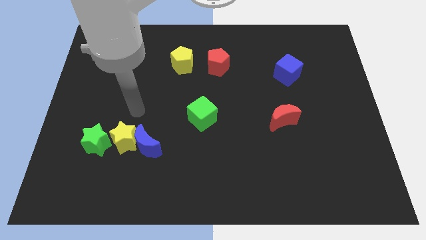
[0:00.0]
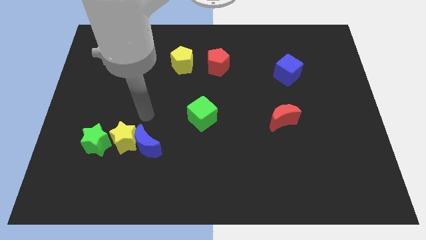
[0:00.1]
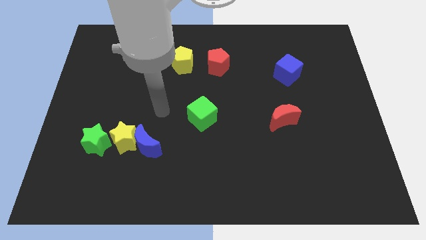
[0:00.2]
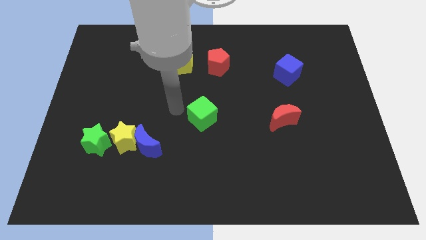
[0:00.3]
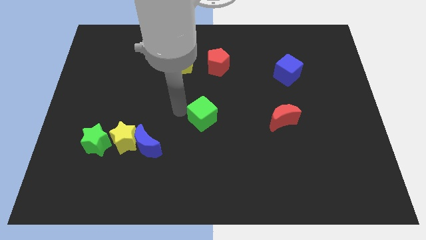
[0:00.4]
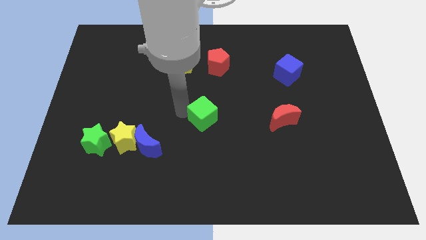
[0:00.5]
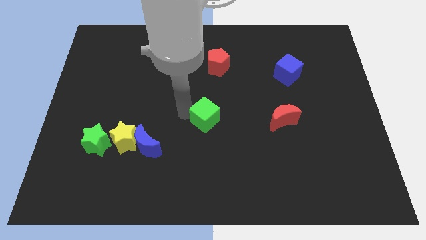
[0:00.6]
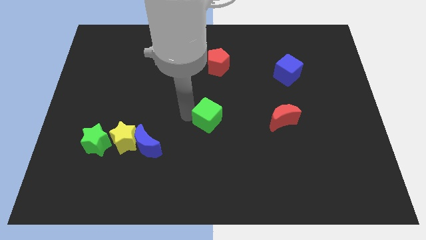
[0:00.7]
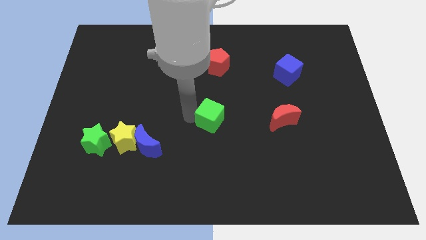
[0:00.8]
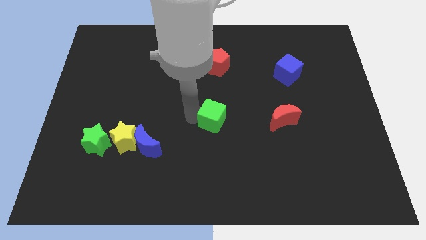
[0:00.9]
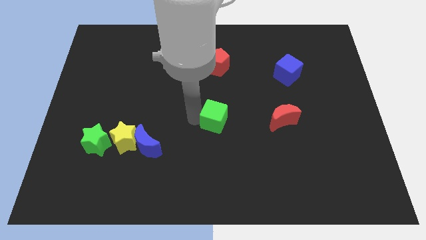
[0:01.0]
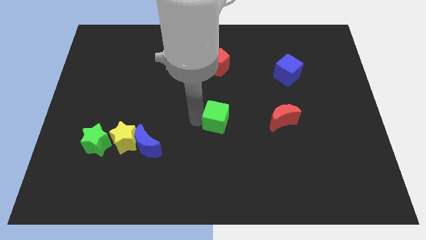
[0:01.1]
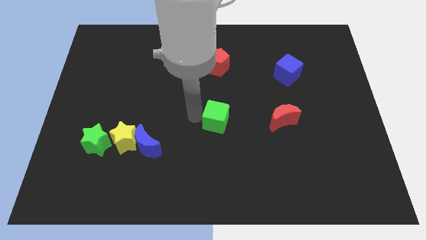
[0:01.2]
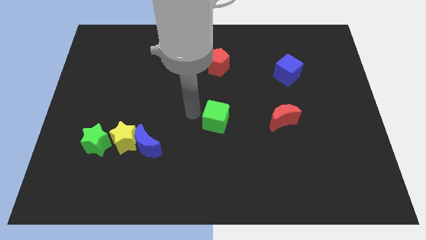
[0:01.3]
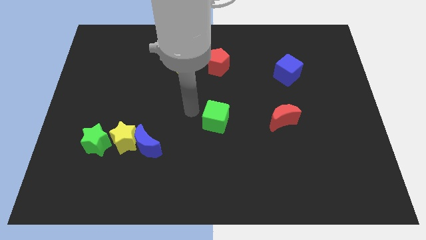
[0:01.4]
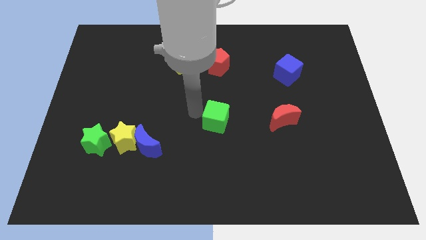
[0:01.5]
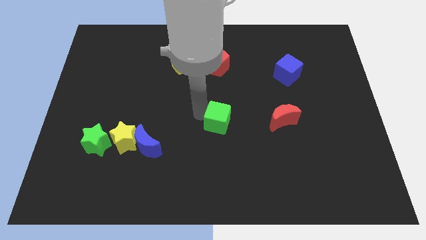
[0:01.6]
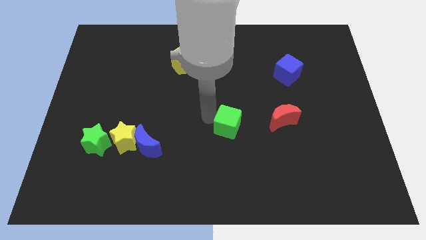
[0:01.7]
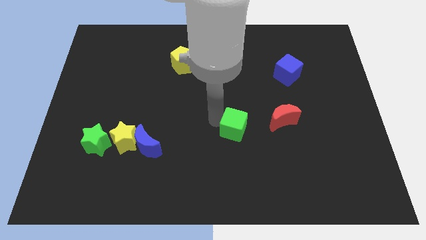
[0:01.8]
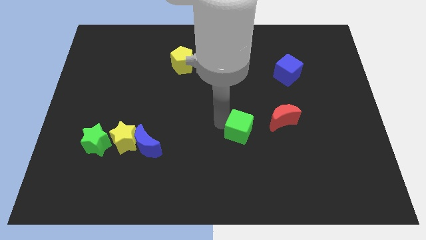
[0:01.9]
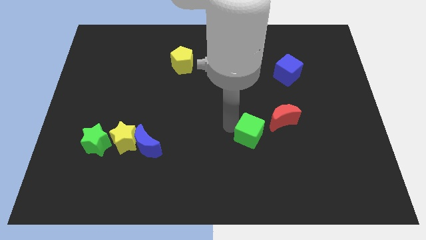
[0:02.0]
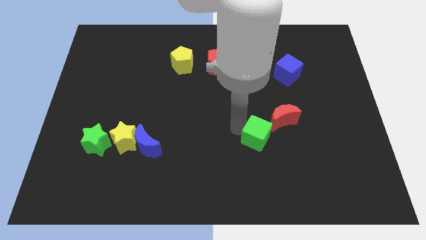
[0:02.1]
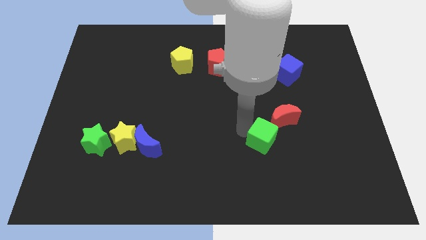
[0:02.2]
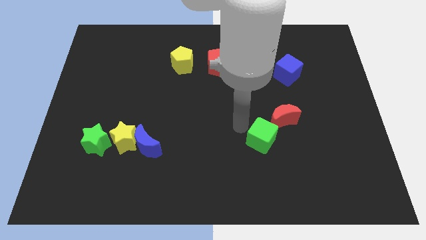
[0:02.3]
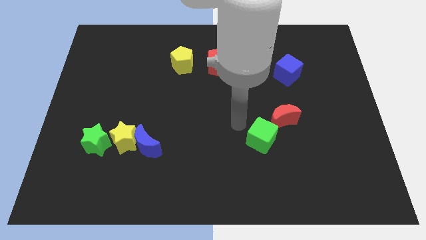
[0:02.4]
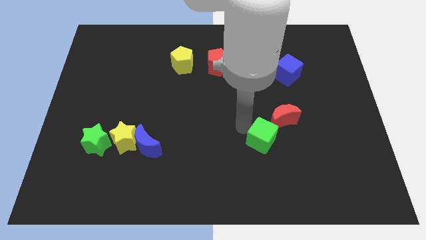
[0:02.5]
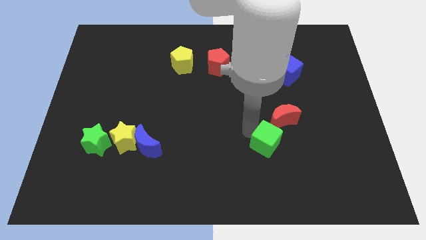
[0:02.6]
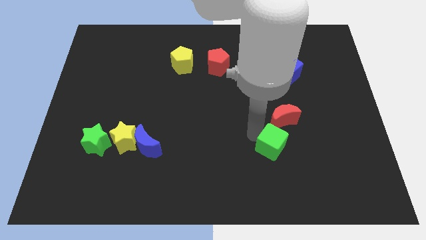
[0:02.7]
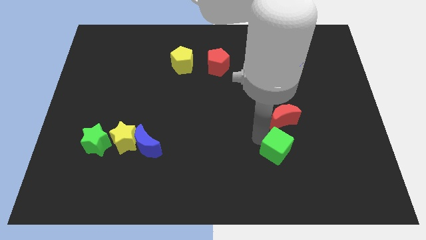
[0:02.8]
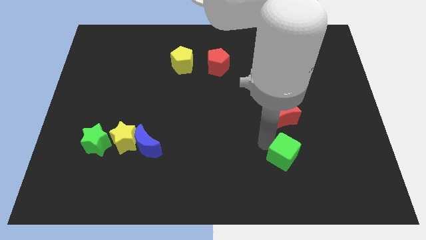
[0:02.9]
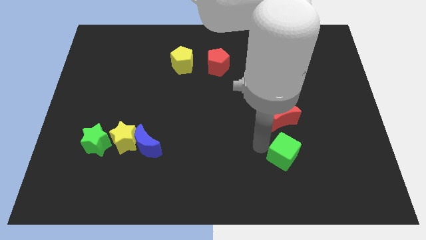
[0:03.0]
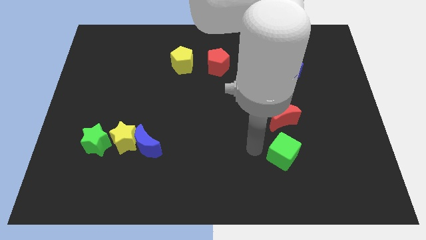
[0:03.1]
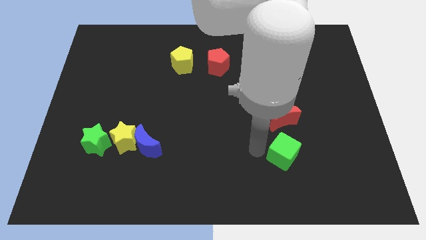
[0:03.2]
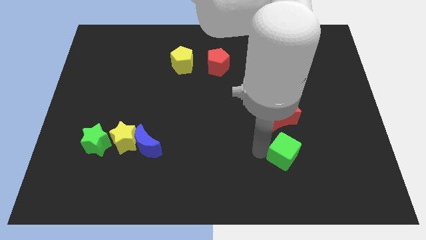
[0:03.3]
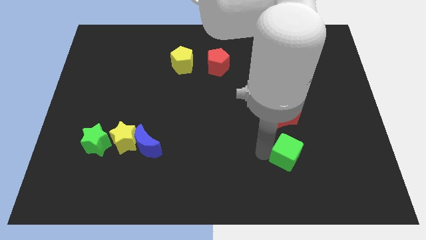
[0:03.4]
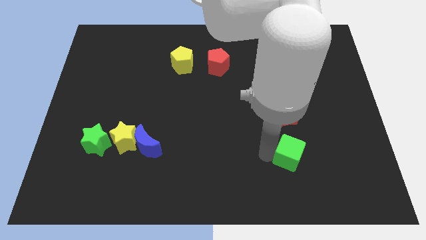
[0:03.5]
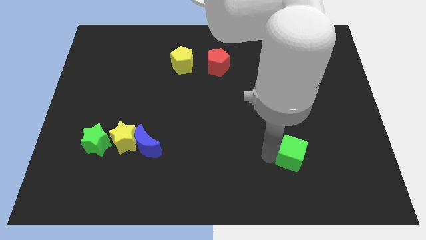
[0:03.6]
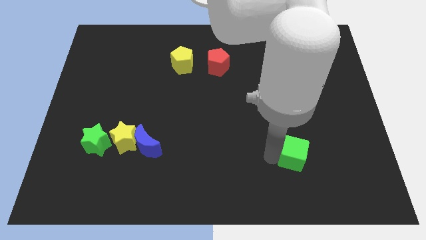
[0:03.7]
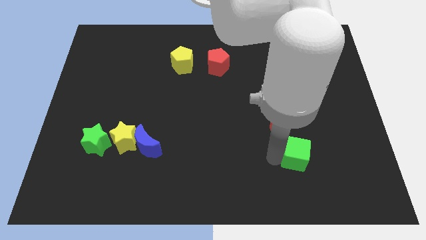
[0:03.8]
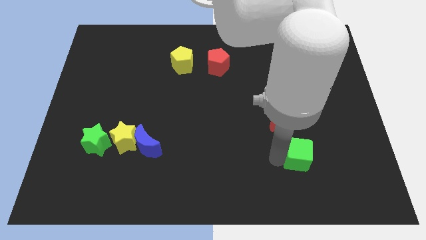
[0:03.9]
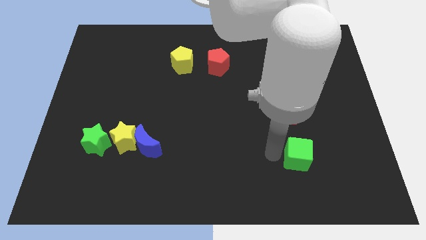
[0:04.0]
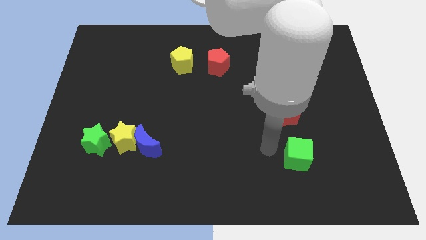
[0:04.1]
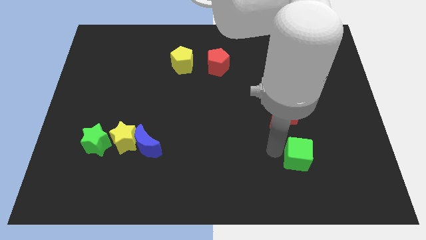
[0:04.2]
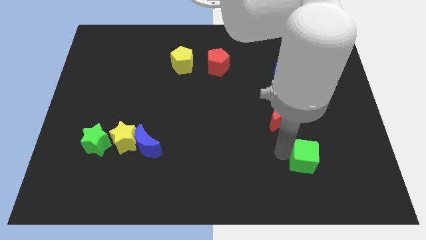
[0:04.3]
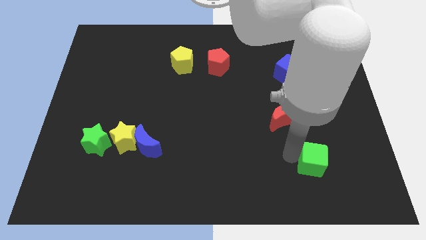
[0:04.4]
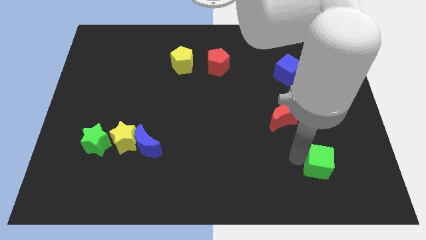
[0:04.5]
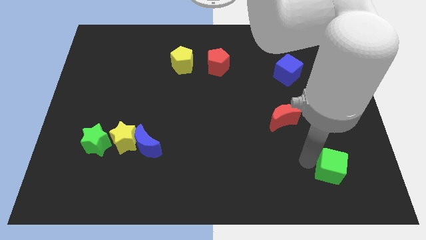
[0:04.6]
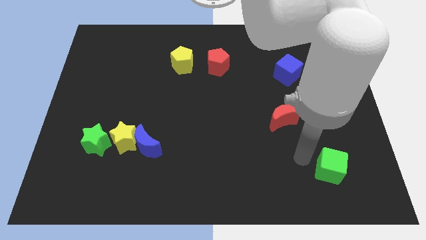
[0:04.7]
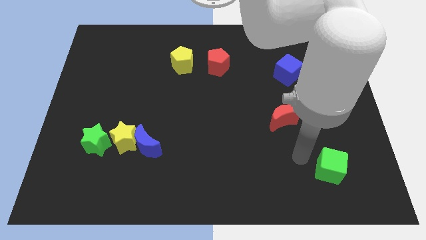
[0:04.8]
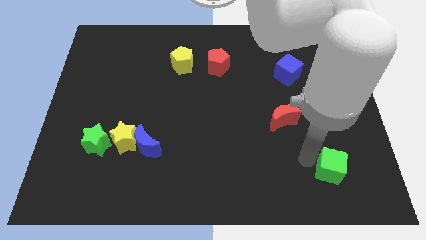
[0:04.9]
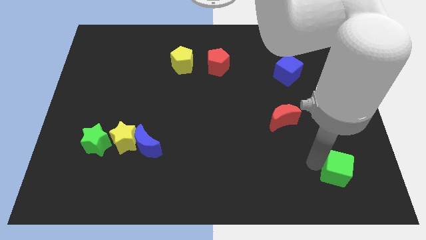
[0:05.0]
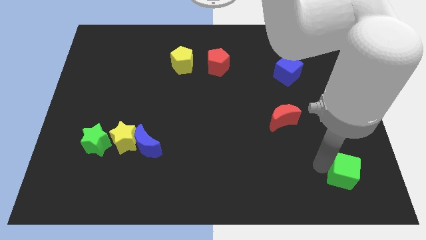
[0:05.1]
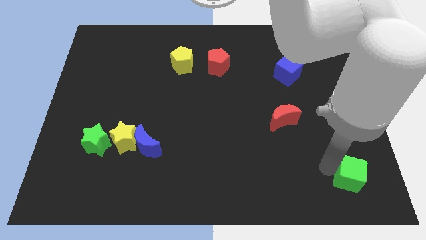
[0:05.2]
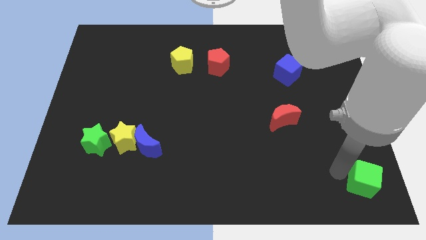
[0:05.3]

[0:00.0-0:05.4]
slide the green cube to the bottom right

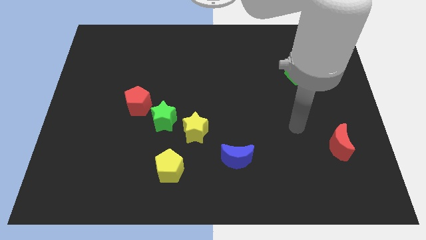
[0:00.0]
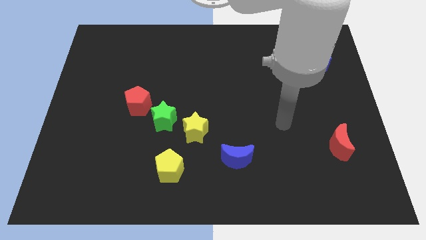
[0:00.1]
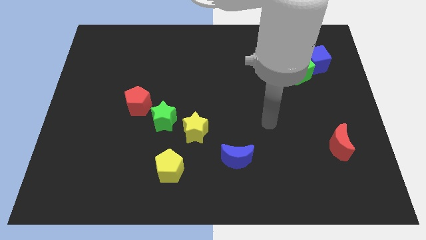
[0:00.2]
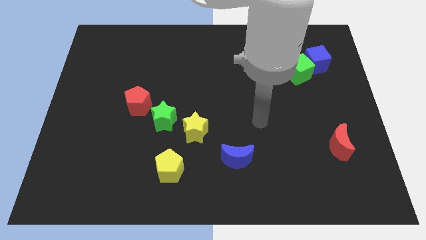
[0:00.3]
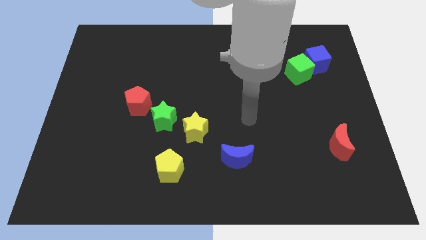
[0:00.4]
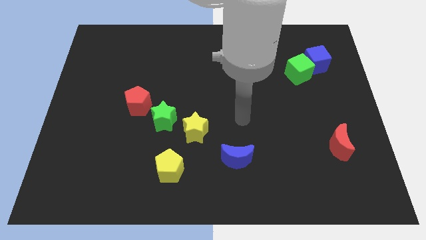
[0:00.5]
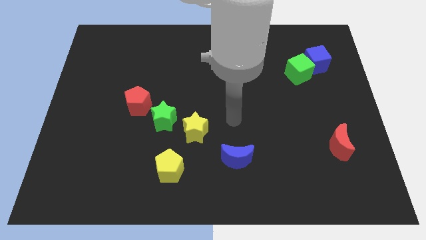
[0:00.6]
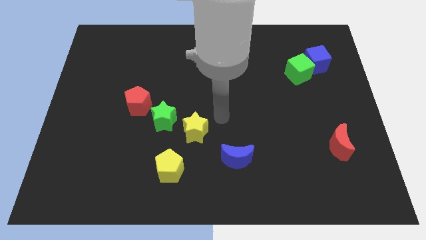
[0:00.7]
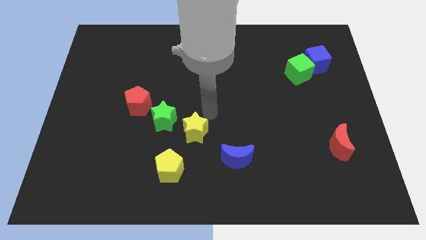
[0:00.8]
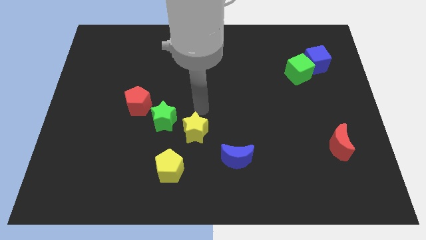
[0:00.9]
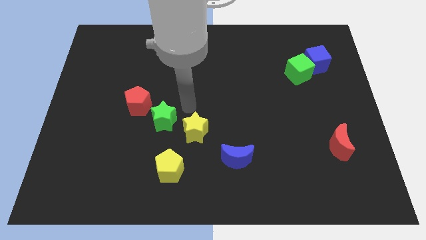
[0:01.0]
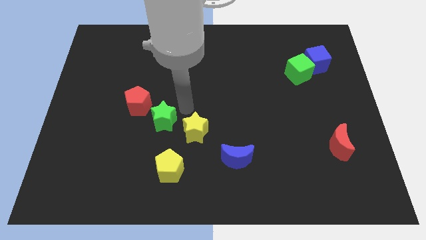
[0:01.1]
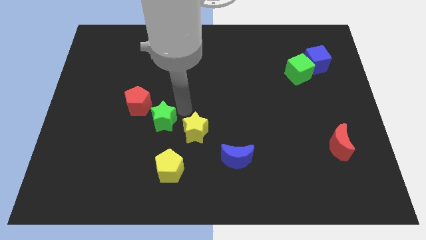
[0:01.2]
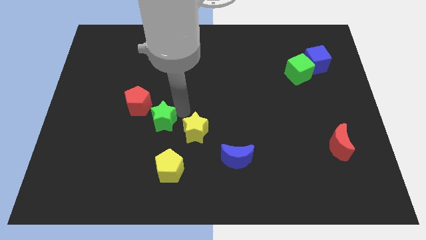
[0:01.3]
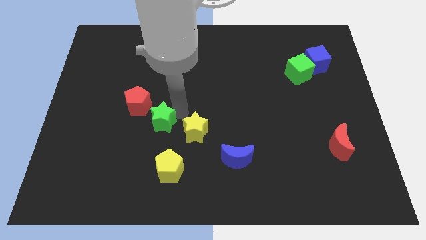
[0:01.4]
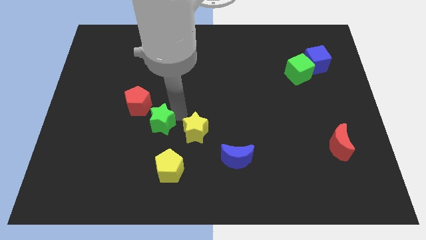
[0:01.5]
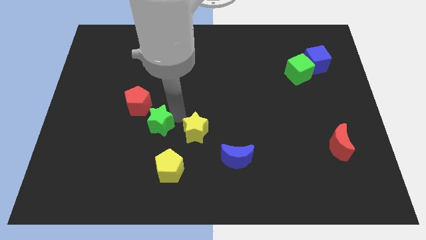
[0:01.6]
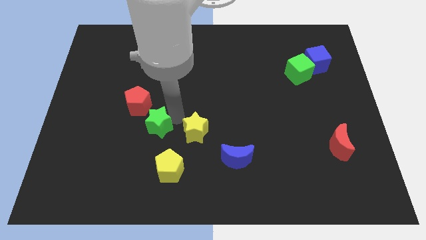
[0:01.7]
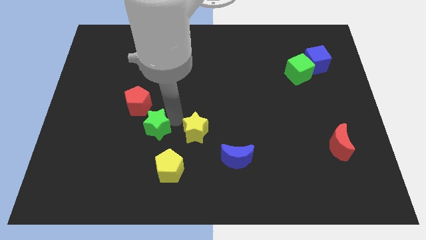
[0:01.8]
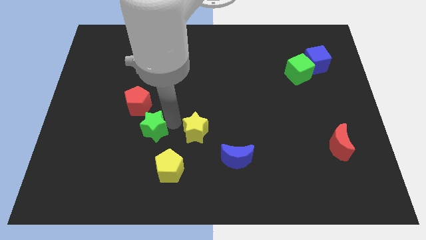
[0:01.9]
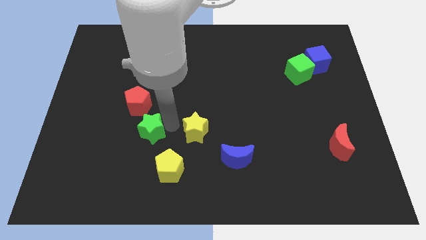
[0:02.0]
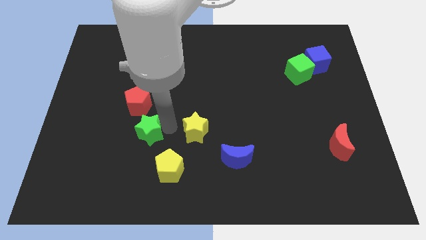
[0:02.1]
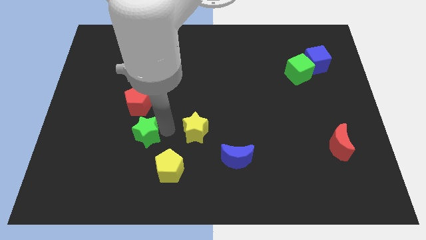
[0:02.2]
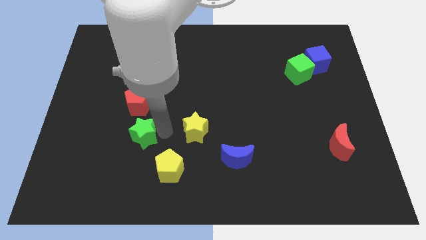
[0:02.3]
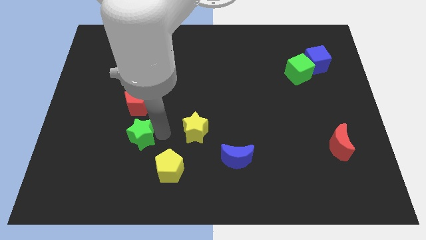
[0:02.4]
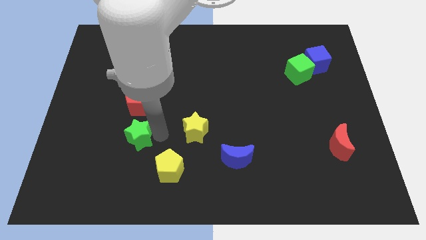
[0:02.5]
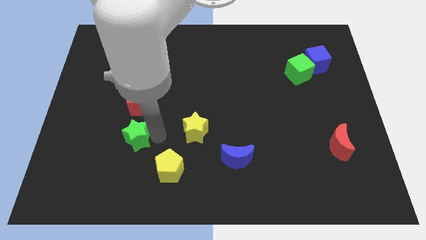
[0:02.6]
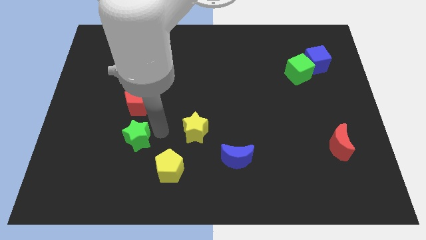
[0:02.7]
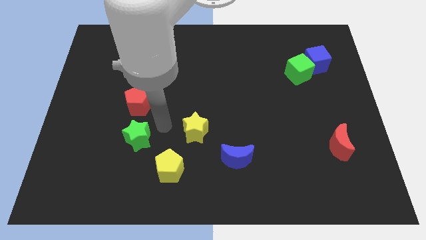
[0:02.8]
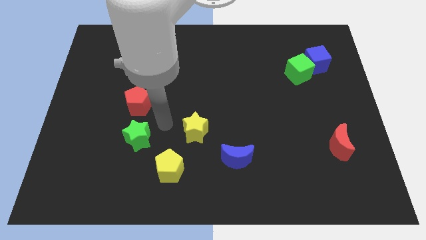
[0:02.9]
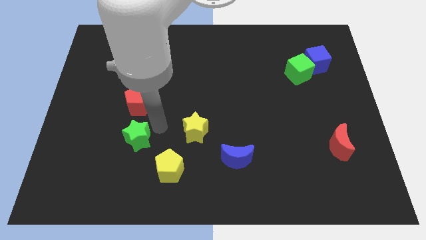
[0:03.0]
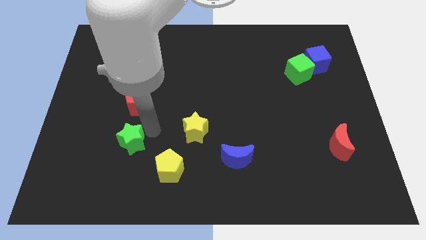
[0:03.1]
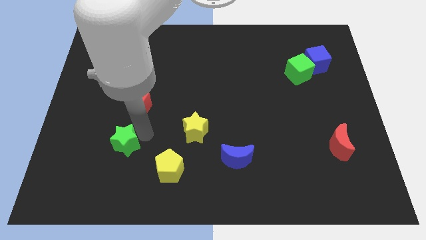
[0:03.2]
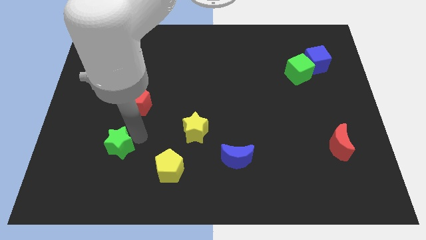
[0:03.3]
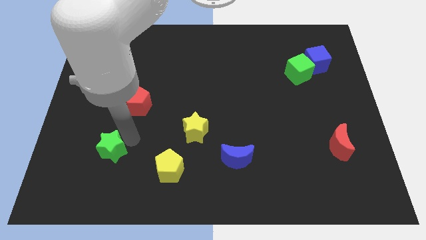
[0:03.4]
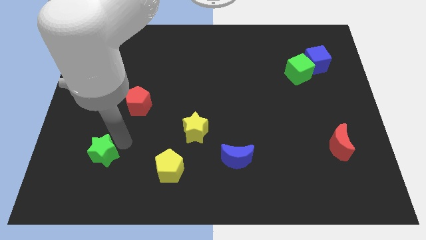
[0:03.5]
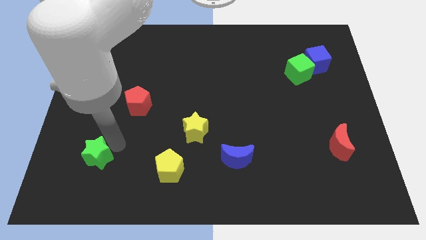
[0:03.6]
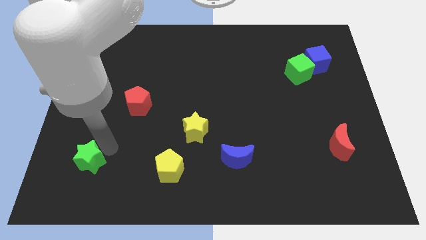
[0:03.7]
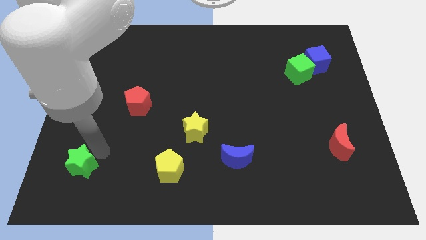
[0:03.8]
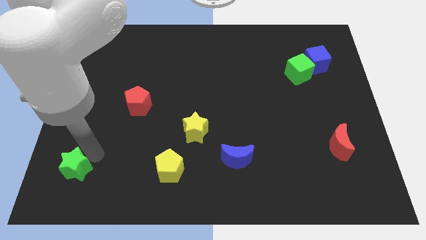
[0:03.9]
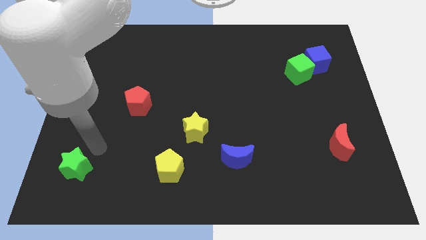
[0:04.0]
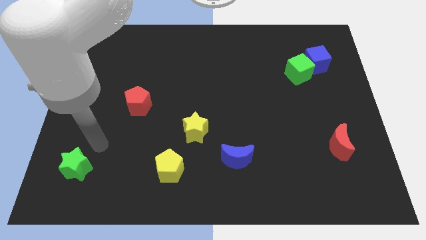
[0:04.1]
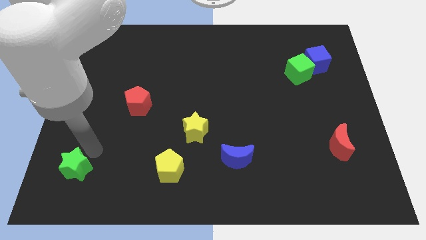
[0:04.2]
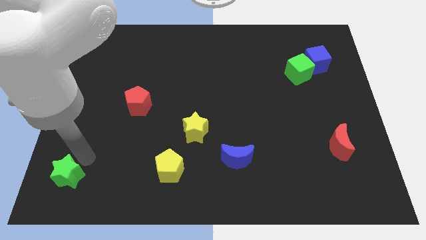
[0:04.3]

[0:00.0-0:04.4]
put the green star to the bottom left
